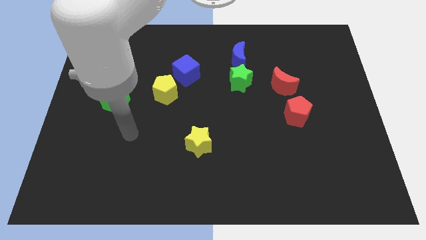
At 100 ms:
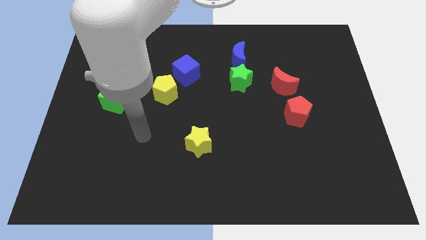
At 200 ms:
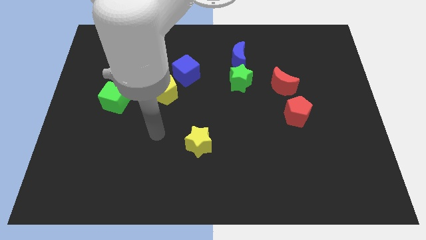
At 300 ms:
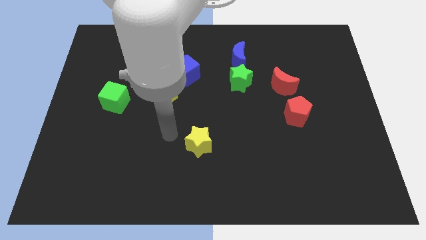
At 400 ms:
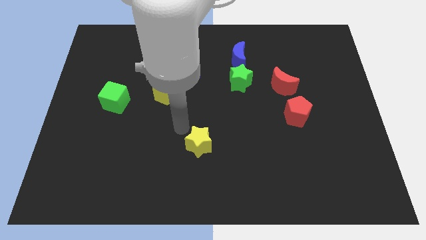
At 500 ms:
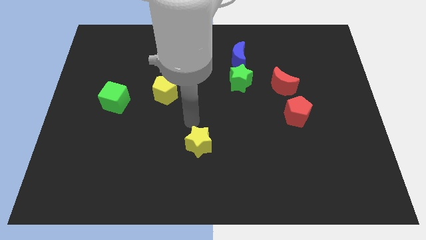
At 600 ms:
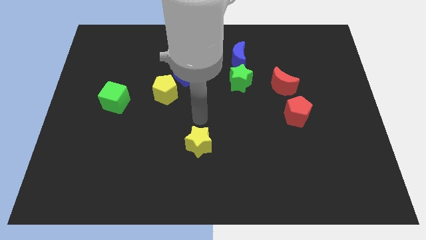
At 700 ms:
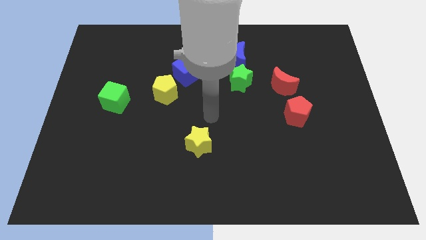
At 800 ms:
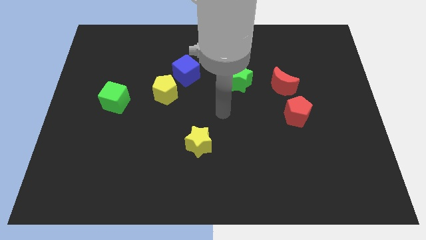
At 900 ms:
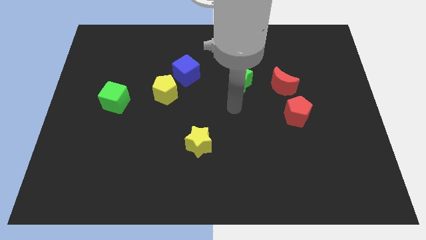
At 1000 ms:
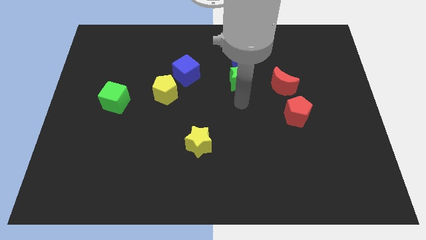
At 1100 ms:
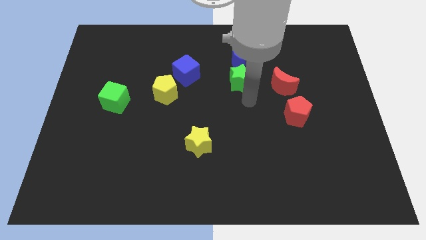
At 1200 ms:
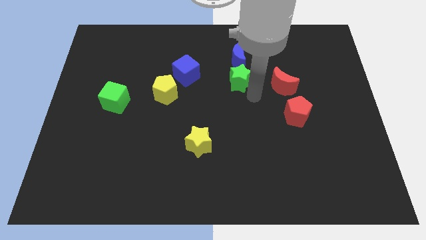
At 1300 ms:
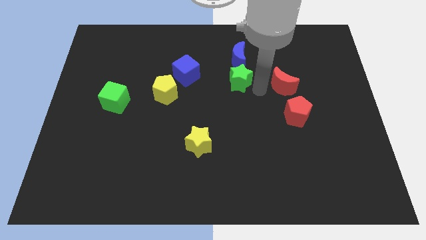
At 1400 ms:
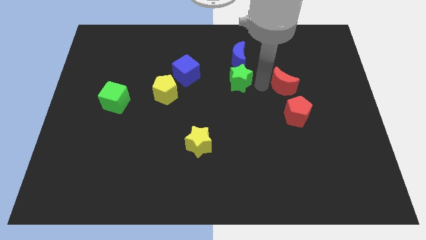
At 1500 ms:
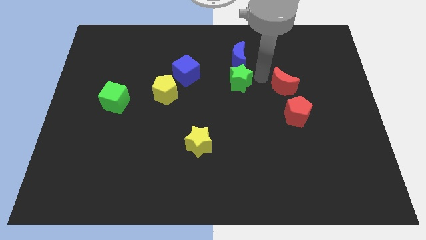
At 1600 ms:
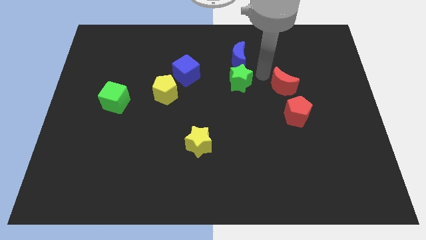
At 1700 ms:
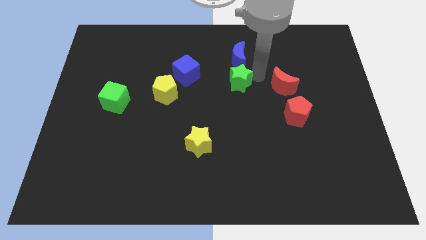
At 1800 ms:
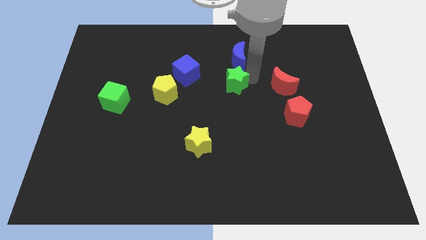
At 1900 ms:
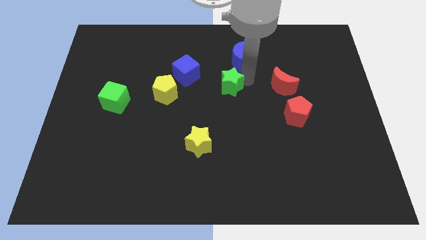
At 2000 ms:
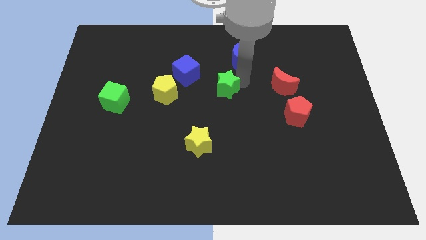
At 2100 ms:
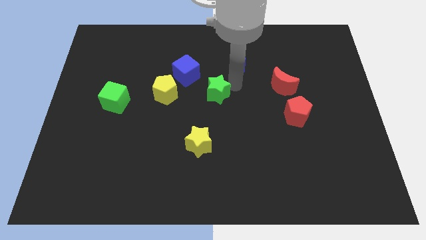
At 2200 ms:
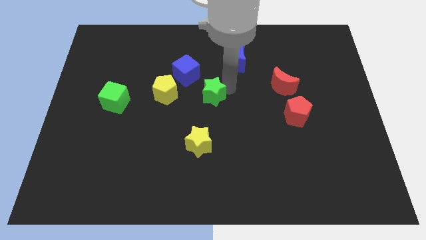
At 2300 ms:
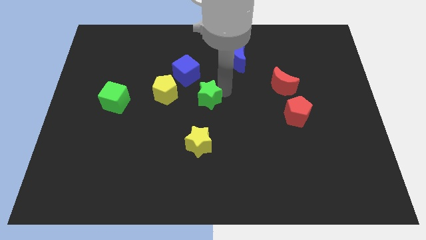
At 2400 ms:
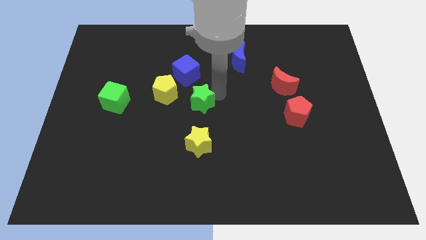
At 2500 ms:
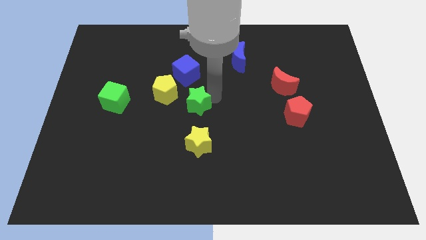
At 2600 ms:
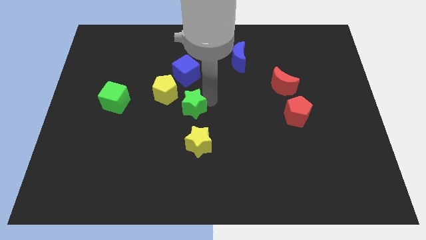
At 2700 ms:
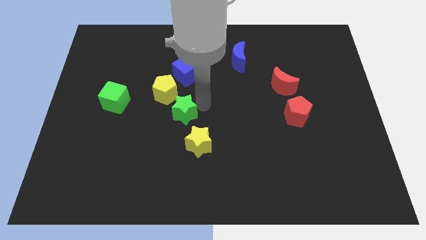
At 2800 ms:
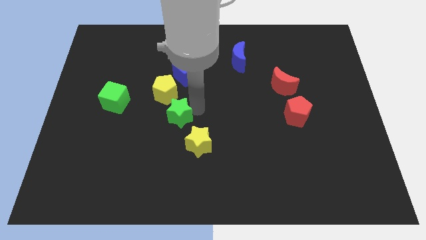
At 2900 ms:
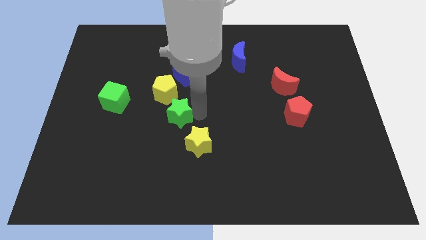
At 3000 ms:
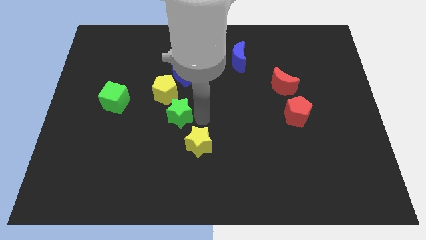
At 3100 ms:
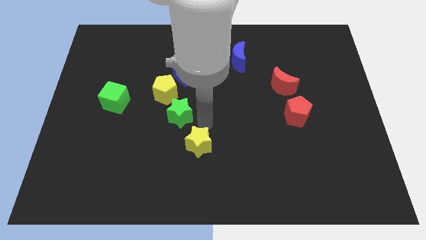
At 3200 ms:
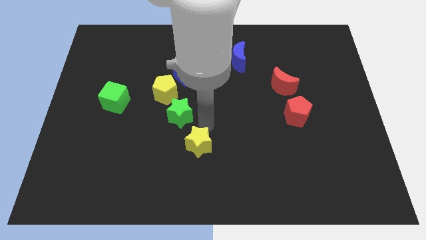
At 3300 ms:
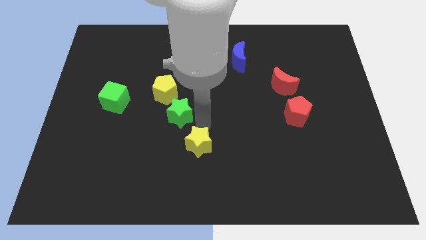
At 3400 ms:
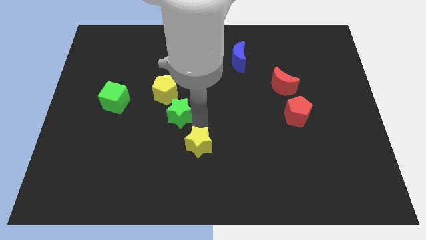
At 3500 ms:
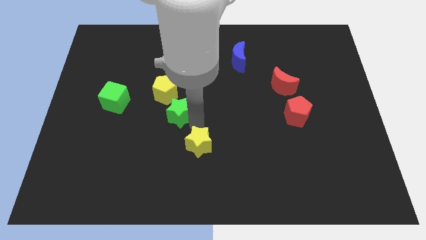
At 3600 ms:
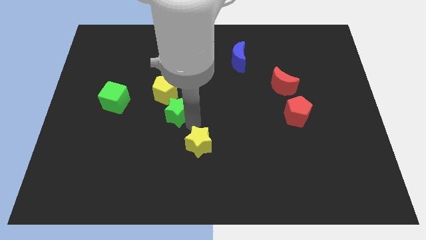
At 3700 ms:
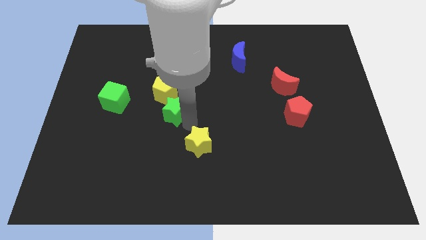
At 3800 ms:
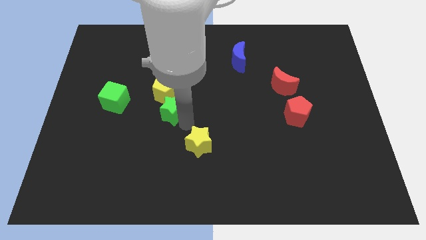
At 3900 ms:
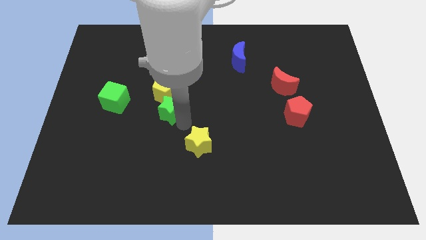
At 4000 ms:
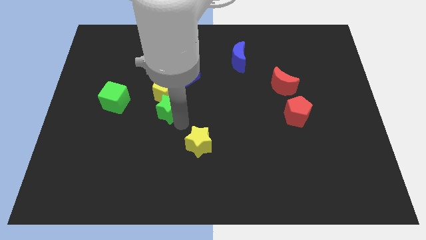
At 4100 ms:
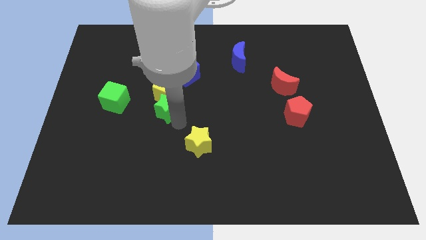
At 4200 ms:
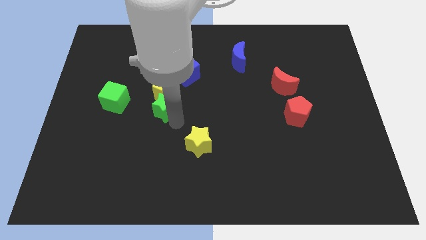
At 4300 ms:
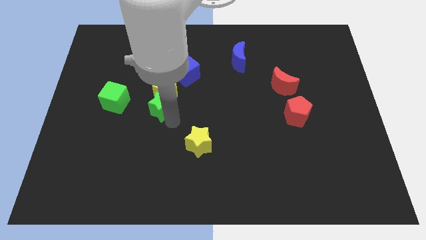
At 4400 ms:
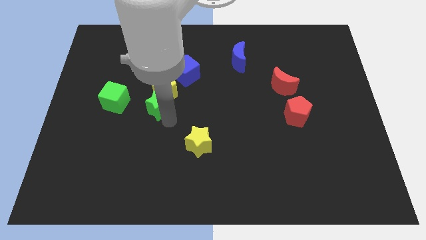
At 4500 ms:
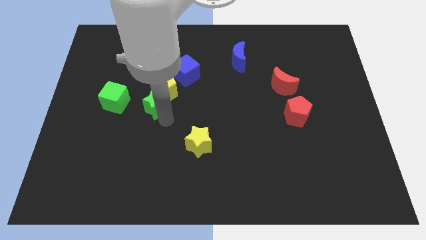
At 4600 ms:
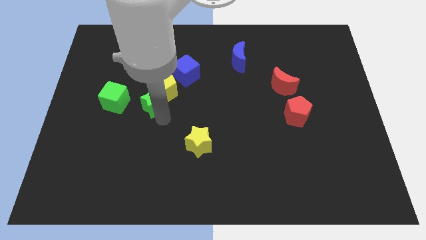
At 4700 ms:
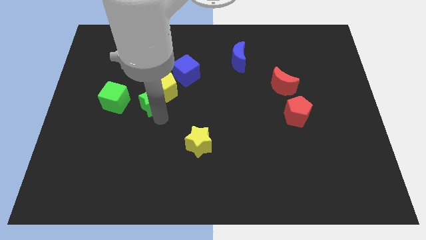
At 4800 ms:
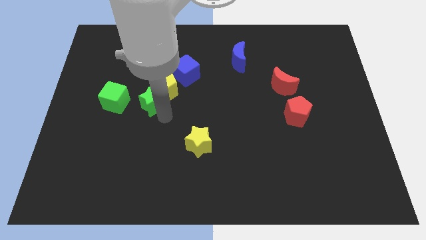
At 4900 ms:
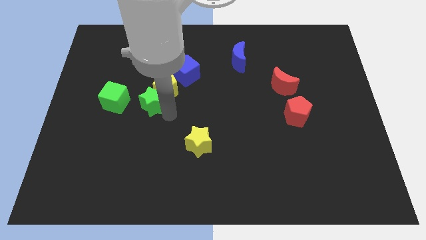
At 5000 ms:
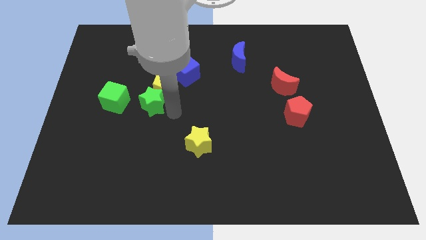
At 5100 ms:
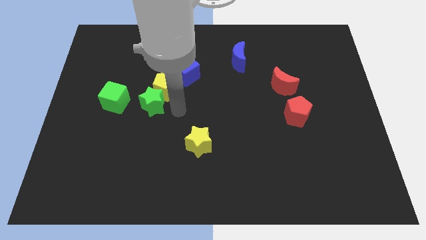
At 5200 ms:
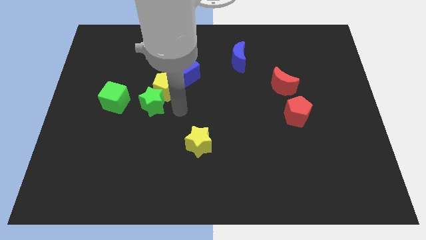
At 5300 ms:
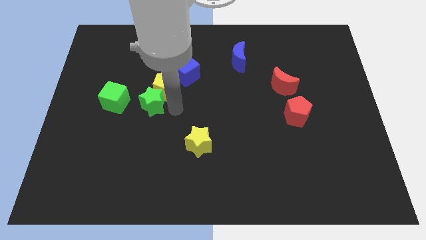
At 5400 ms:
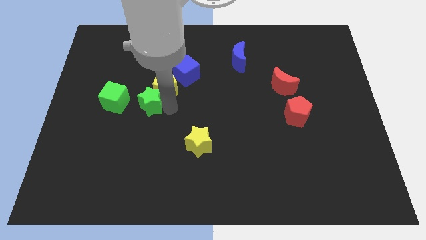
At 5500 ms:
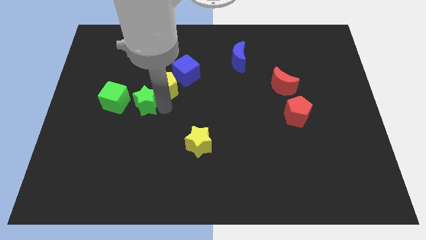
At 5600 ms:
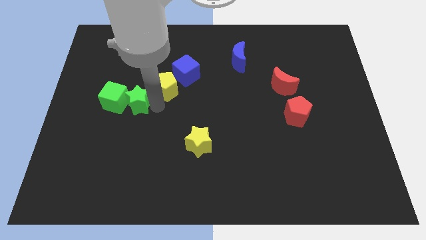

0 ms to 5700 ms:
push the green star to the green cube

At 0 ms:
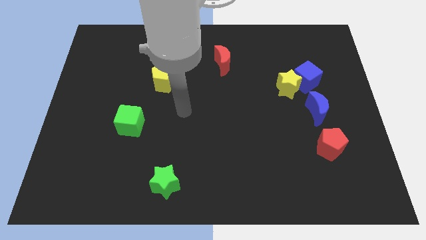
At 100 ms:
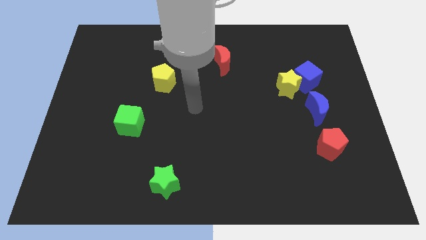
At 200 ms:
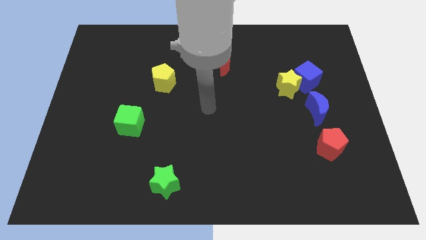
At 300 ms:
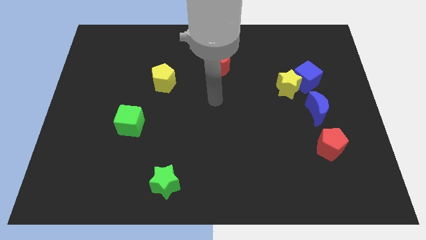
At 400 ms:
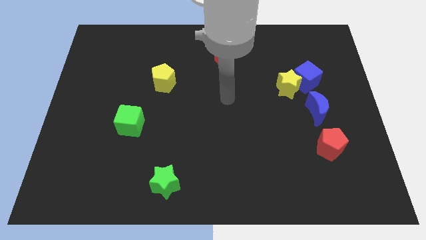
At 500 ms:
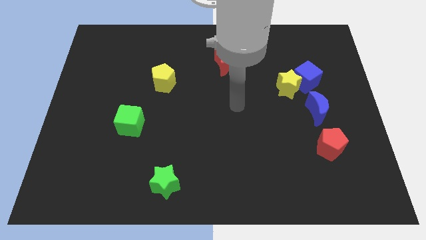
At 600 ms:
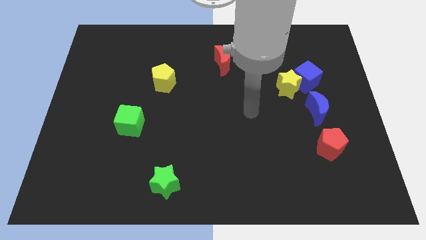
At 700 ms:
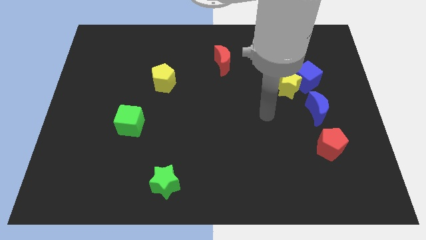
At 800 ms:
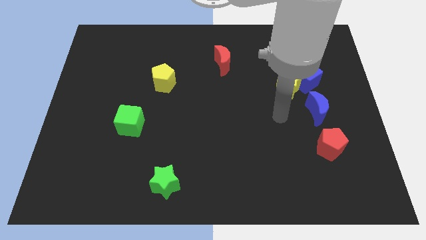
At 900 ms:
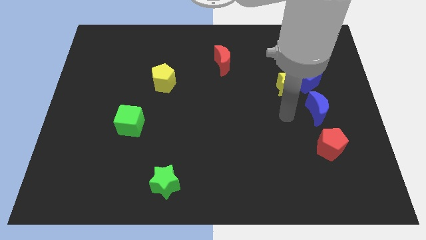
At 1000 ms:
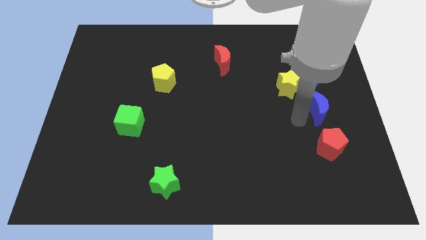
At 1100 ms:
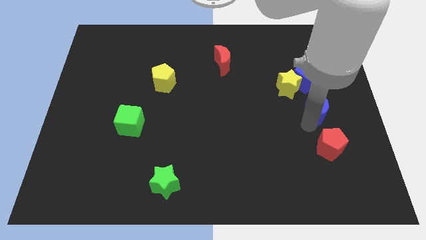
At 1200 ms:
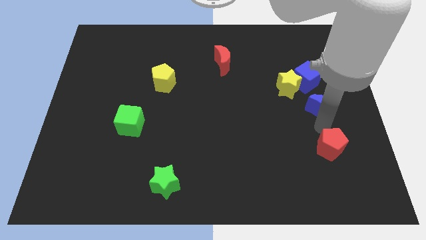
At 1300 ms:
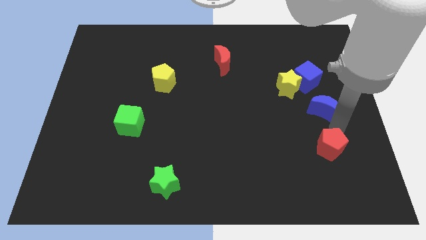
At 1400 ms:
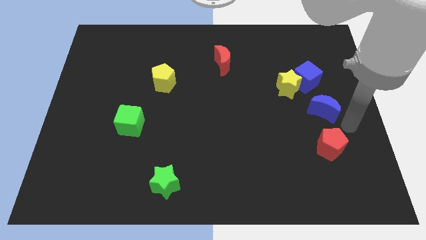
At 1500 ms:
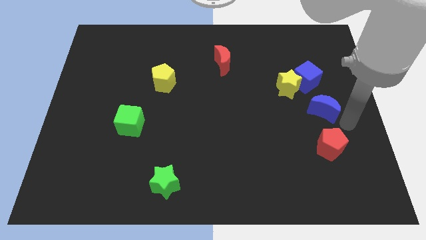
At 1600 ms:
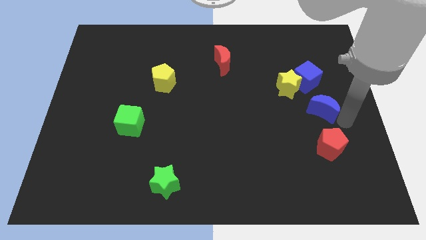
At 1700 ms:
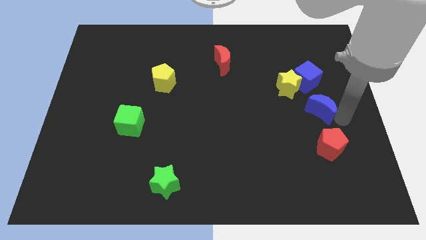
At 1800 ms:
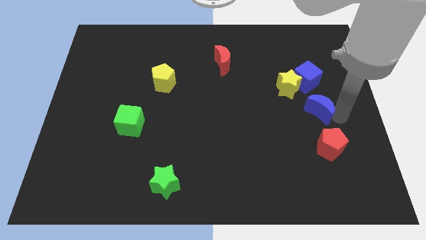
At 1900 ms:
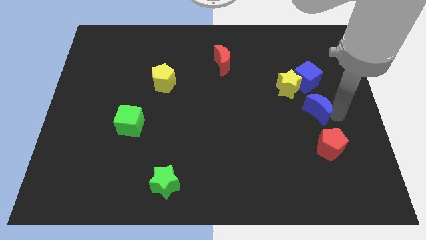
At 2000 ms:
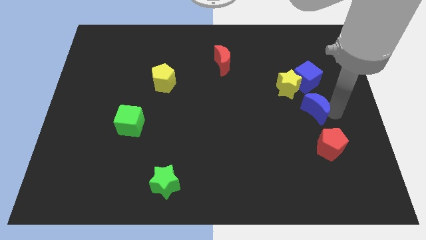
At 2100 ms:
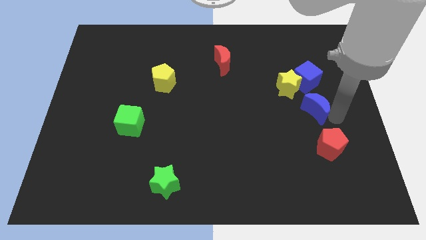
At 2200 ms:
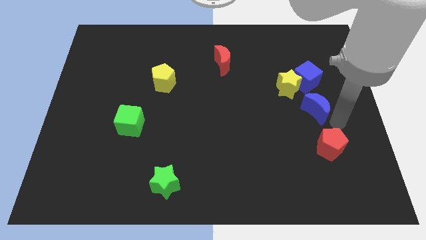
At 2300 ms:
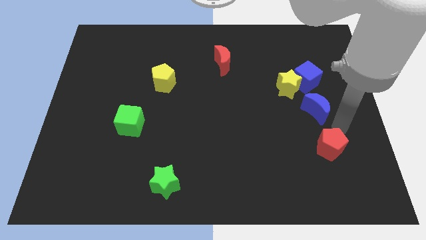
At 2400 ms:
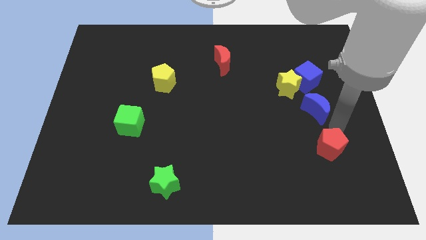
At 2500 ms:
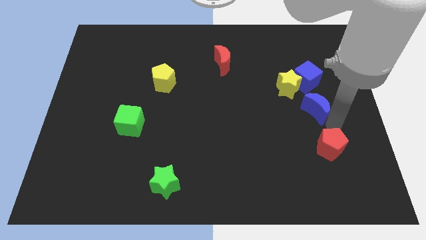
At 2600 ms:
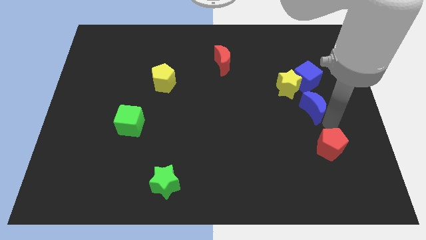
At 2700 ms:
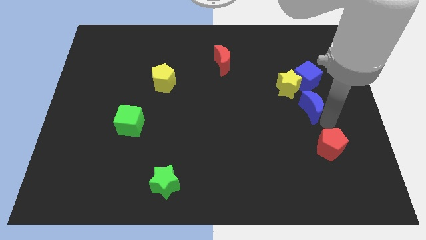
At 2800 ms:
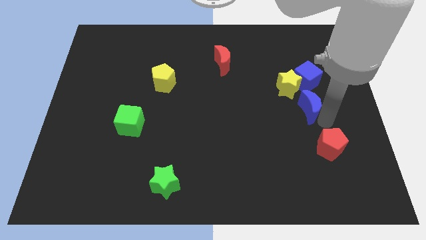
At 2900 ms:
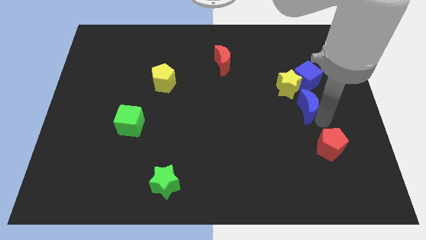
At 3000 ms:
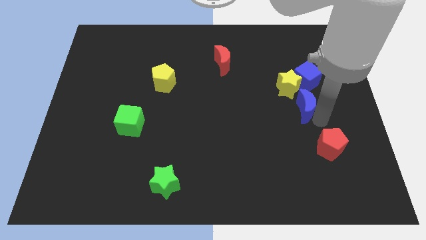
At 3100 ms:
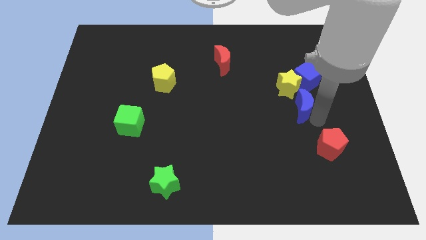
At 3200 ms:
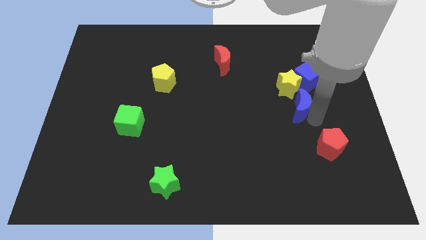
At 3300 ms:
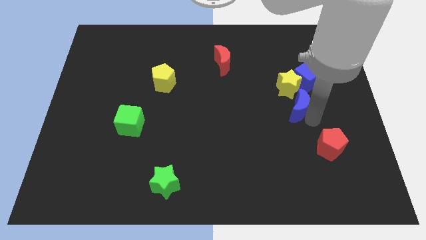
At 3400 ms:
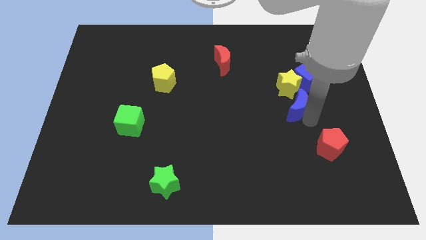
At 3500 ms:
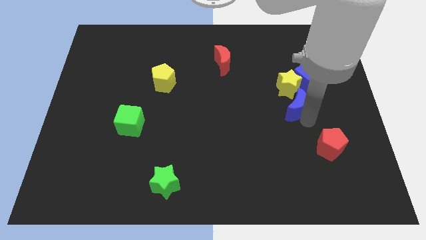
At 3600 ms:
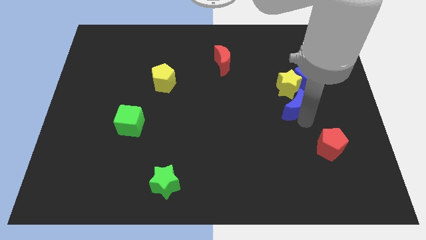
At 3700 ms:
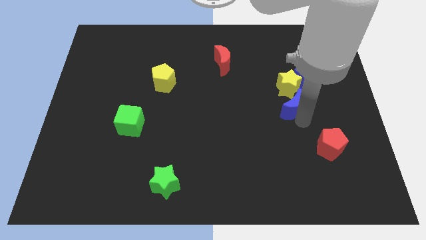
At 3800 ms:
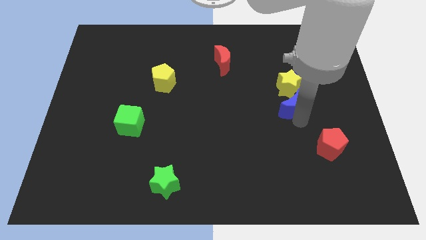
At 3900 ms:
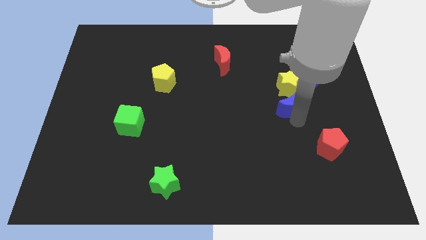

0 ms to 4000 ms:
put the blue moon close to the yellow star
